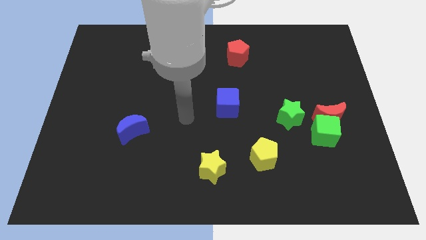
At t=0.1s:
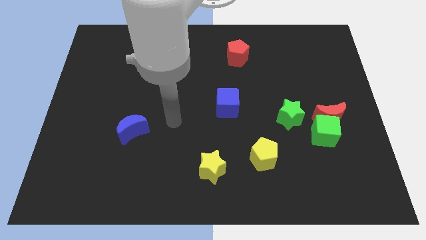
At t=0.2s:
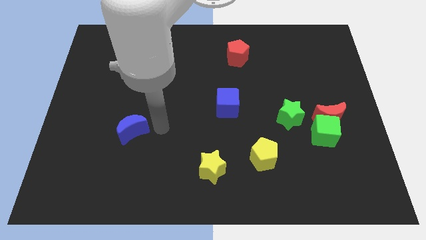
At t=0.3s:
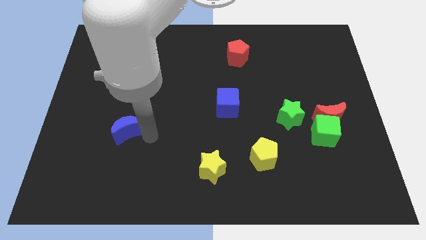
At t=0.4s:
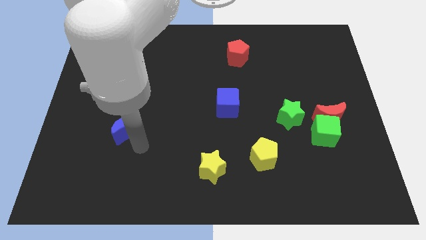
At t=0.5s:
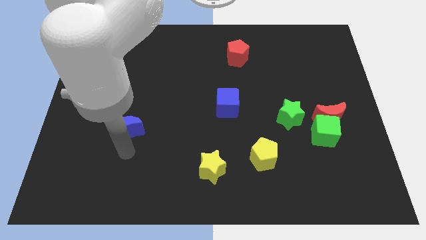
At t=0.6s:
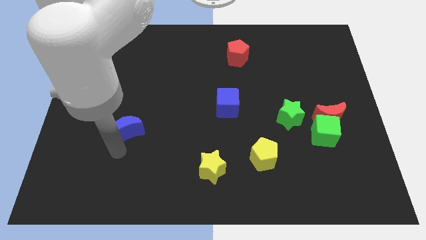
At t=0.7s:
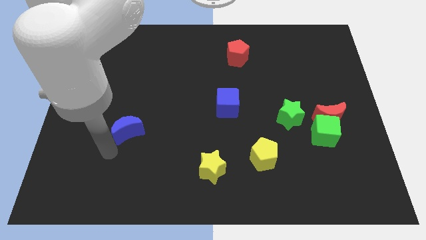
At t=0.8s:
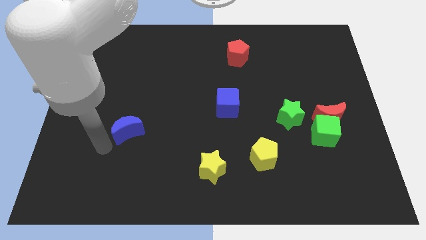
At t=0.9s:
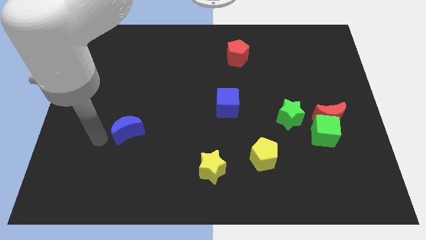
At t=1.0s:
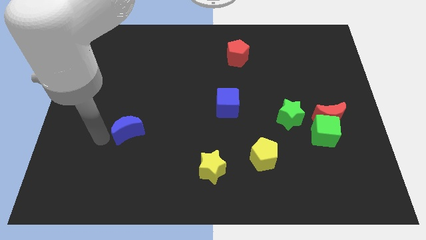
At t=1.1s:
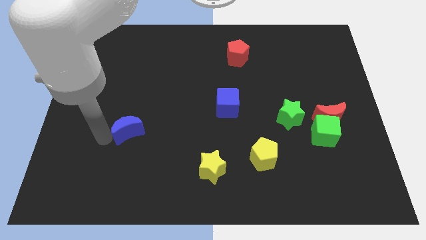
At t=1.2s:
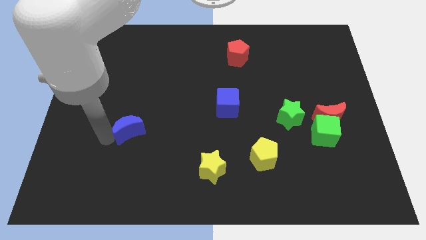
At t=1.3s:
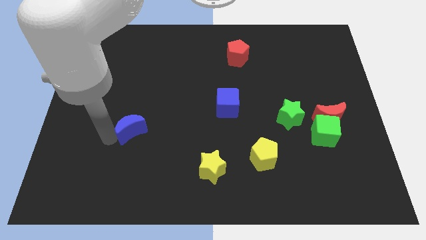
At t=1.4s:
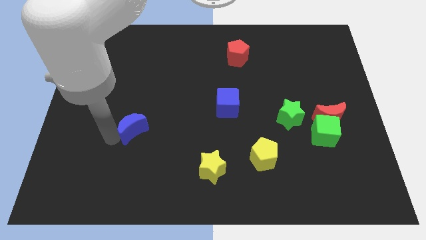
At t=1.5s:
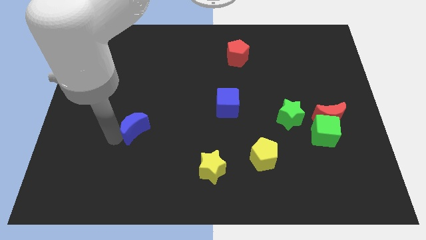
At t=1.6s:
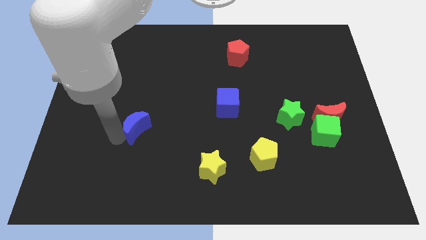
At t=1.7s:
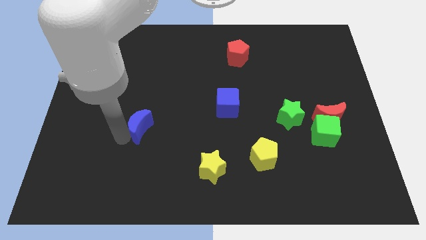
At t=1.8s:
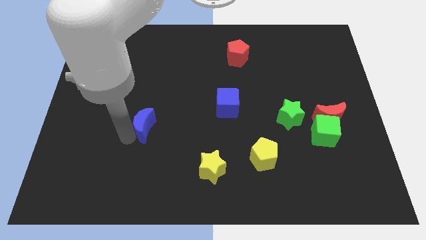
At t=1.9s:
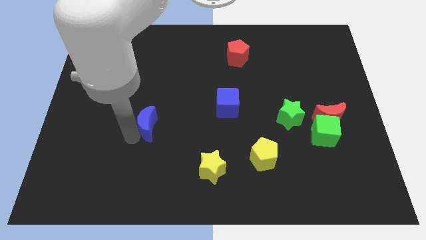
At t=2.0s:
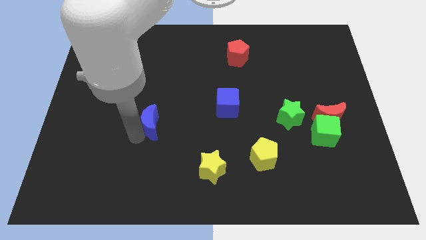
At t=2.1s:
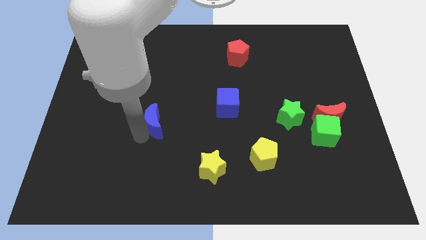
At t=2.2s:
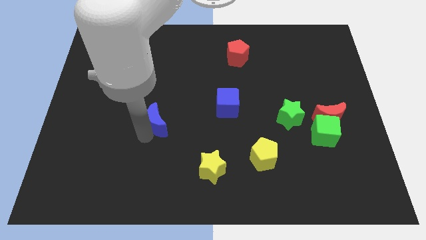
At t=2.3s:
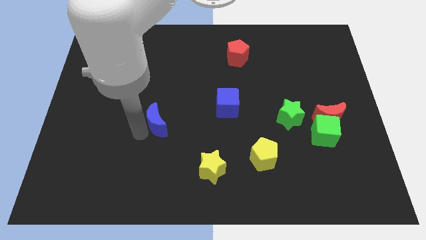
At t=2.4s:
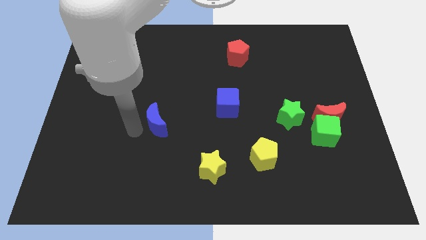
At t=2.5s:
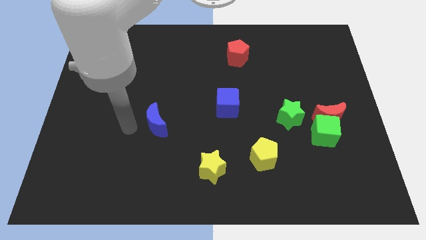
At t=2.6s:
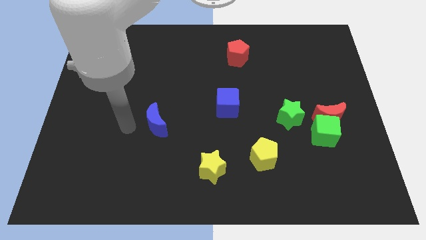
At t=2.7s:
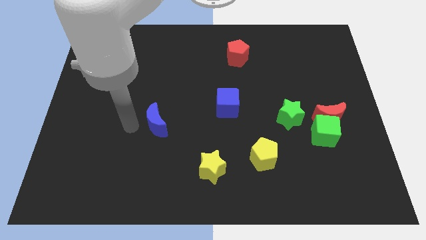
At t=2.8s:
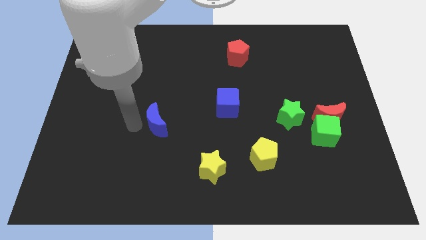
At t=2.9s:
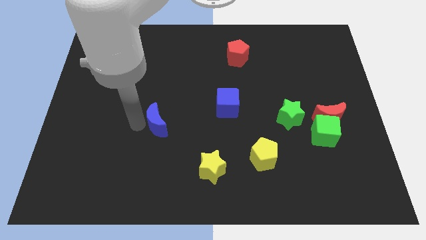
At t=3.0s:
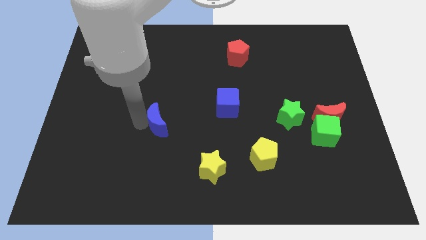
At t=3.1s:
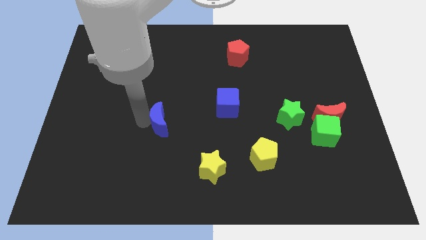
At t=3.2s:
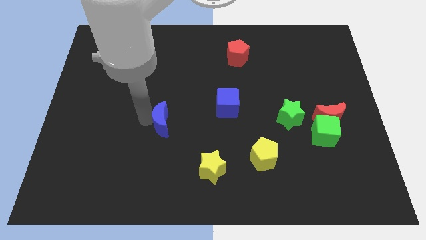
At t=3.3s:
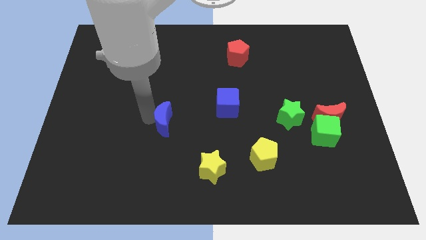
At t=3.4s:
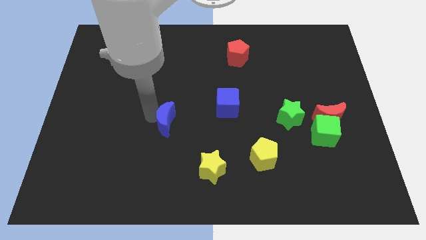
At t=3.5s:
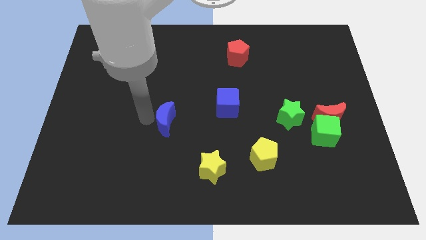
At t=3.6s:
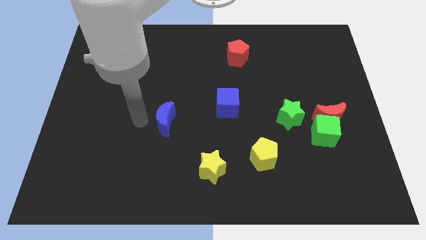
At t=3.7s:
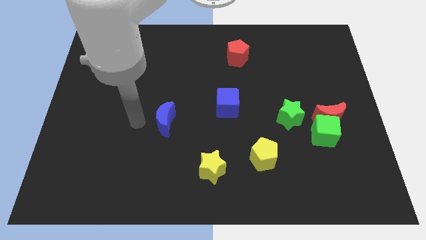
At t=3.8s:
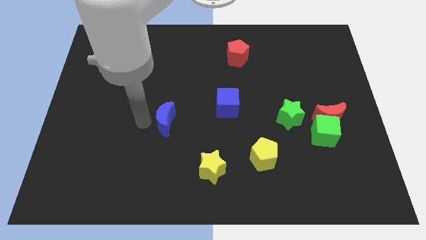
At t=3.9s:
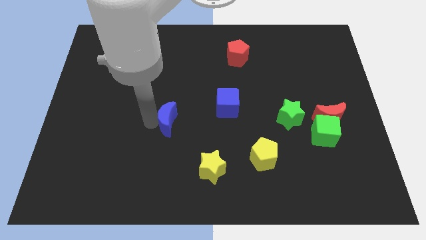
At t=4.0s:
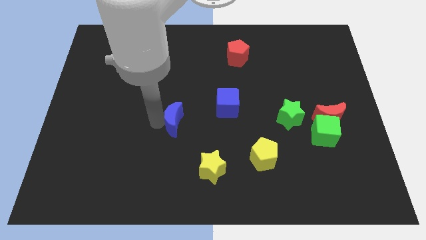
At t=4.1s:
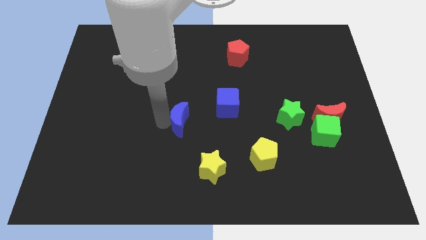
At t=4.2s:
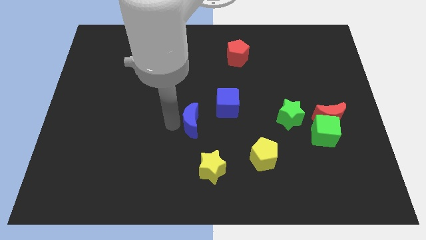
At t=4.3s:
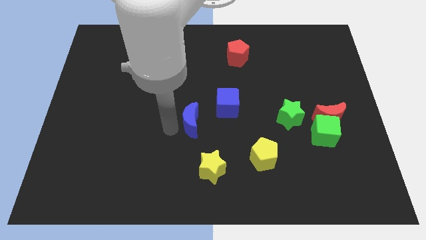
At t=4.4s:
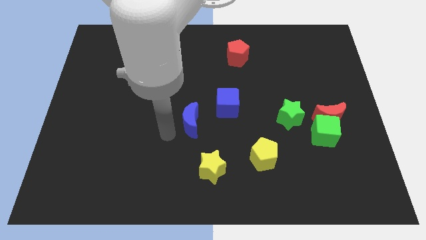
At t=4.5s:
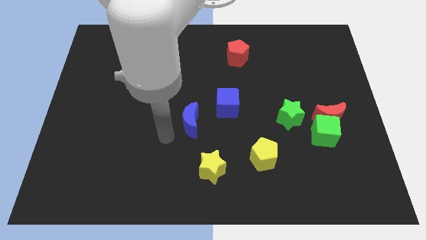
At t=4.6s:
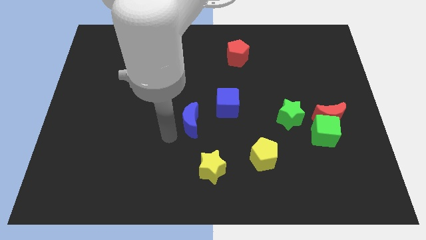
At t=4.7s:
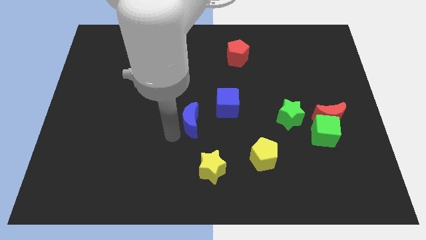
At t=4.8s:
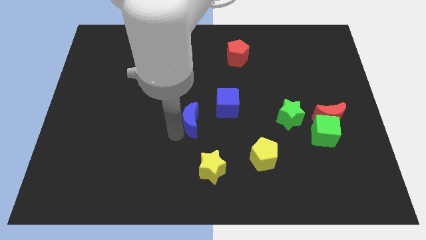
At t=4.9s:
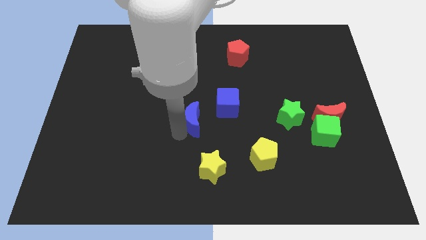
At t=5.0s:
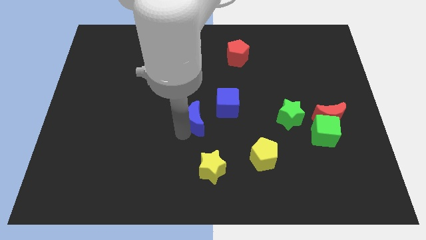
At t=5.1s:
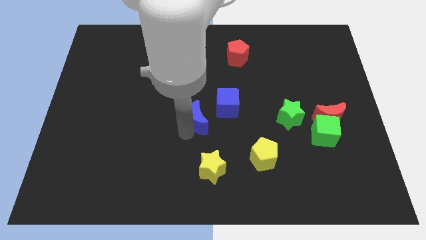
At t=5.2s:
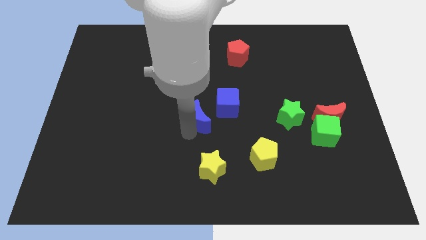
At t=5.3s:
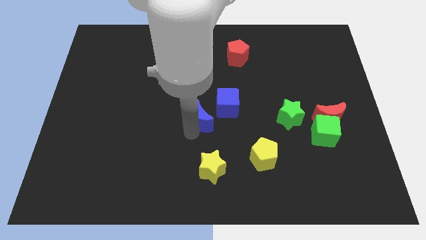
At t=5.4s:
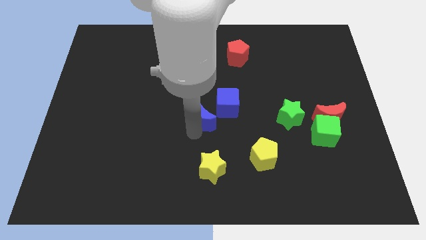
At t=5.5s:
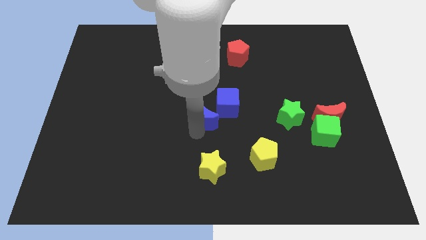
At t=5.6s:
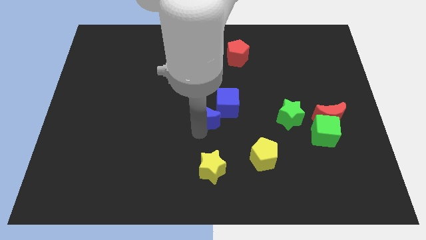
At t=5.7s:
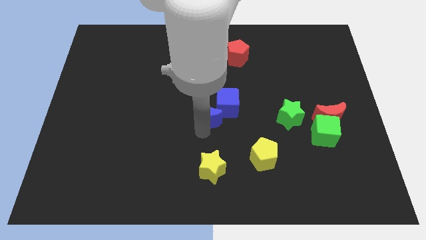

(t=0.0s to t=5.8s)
put the blue moon towards the blue cube

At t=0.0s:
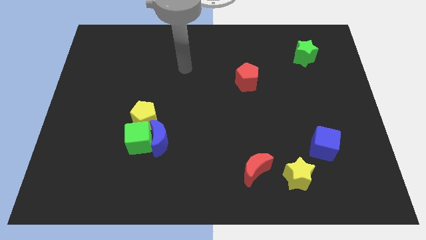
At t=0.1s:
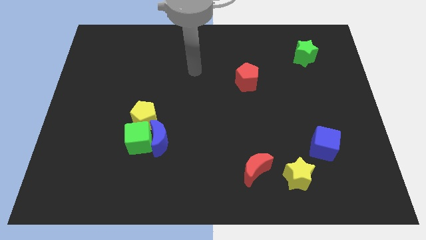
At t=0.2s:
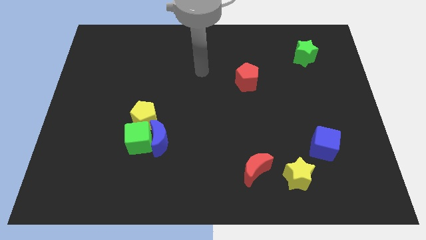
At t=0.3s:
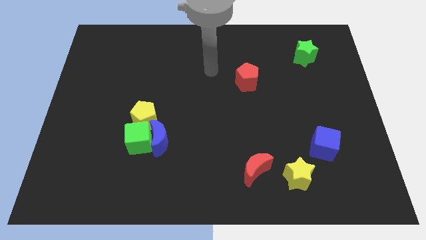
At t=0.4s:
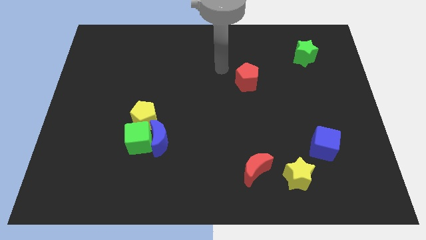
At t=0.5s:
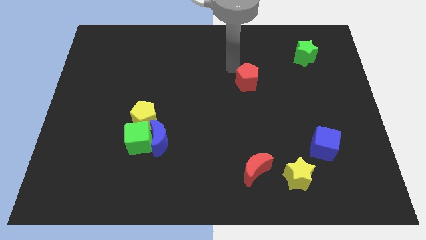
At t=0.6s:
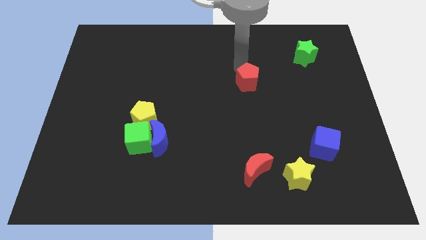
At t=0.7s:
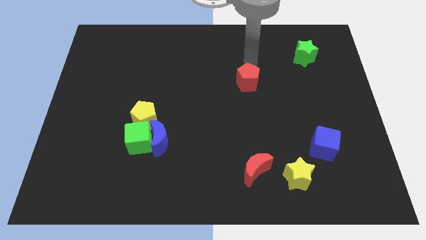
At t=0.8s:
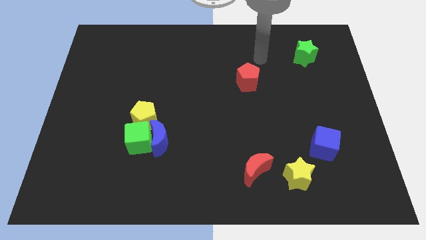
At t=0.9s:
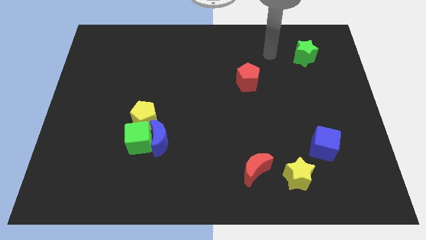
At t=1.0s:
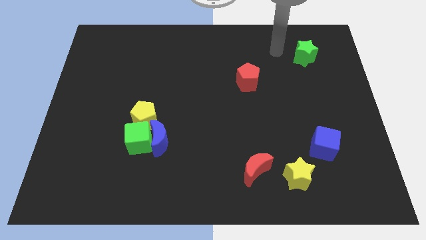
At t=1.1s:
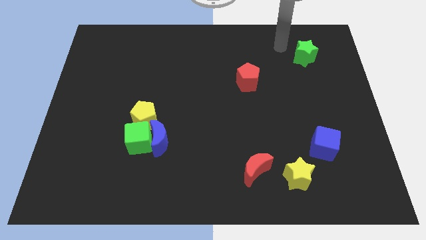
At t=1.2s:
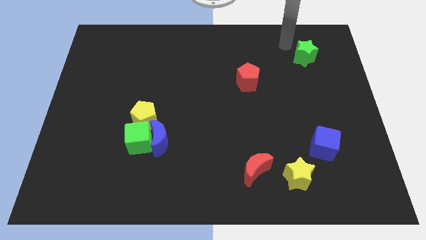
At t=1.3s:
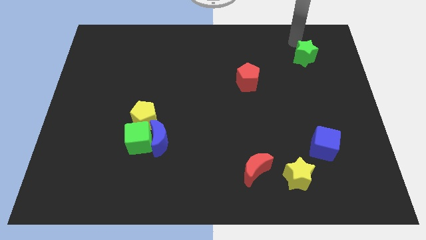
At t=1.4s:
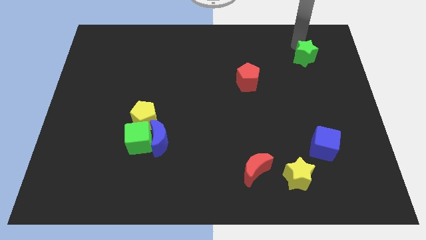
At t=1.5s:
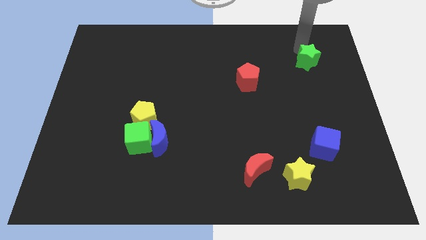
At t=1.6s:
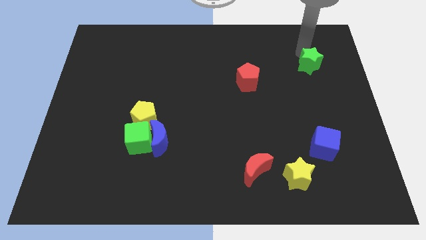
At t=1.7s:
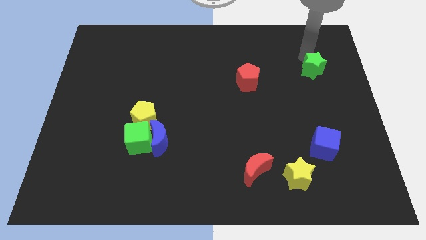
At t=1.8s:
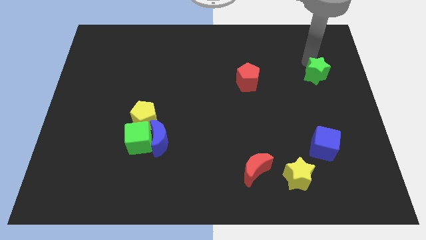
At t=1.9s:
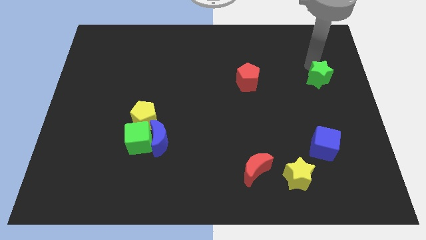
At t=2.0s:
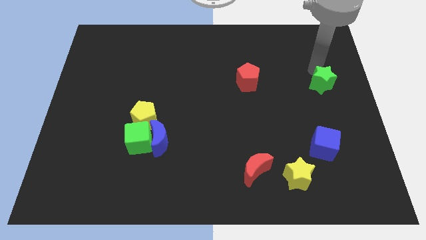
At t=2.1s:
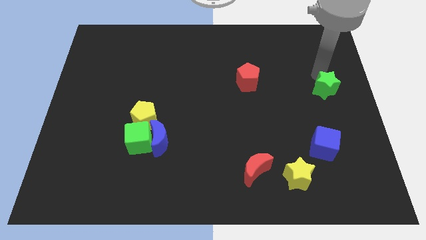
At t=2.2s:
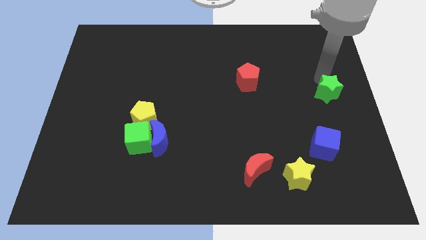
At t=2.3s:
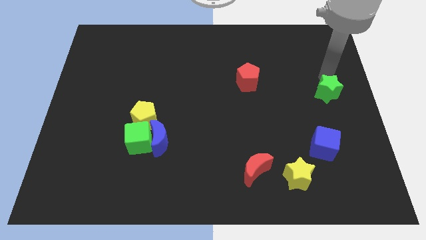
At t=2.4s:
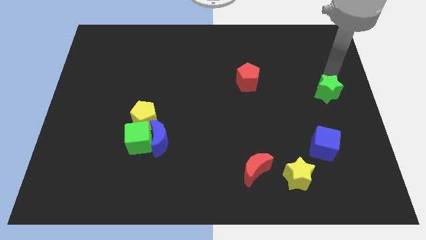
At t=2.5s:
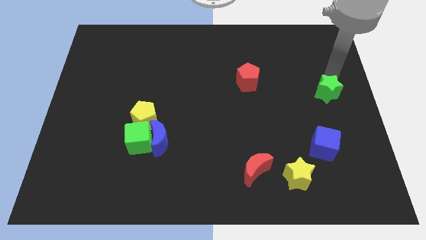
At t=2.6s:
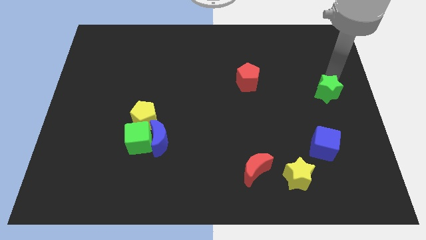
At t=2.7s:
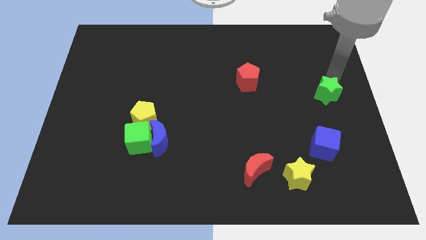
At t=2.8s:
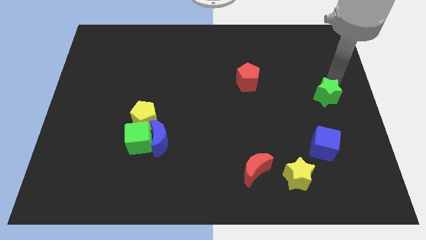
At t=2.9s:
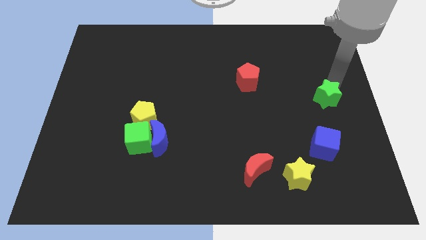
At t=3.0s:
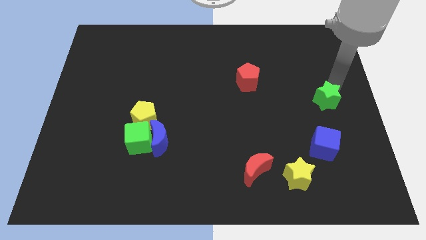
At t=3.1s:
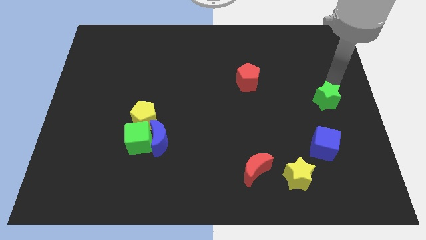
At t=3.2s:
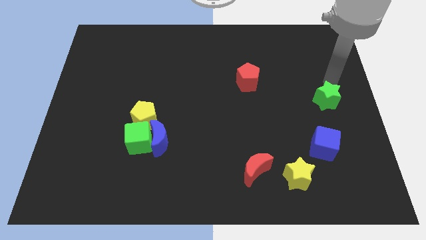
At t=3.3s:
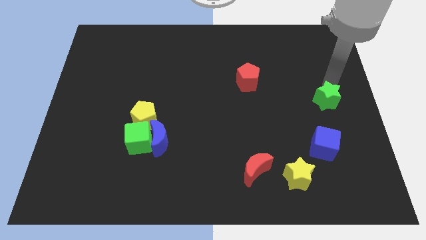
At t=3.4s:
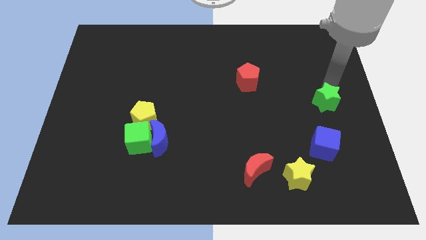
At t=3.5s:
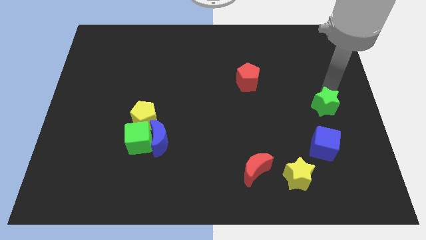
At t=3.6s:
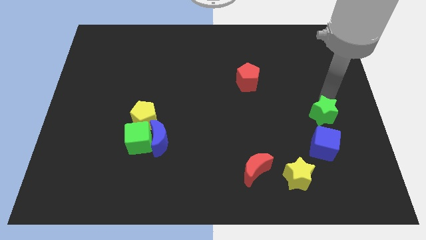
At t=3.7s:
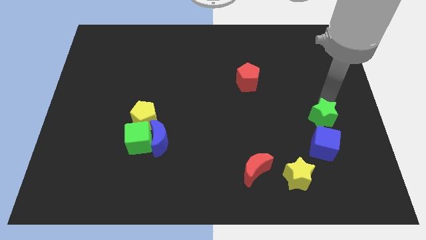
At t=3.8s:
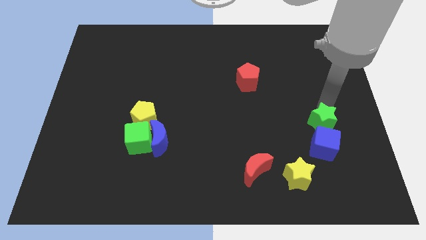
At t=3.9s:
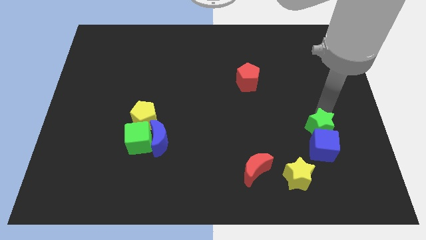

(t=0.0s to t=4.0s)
push the green star close to the blue cube
